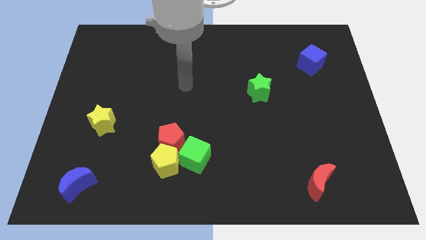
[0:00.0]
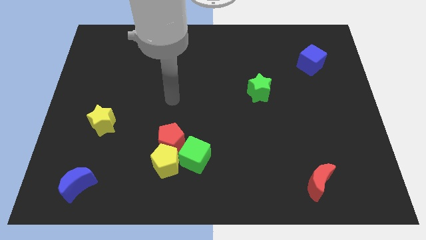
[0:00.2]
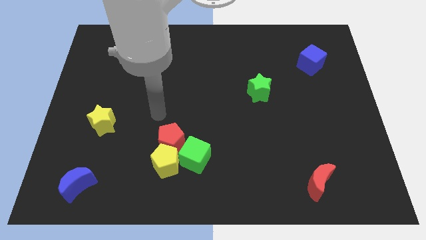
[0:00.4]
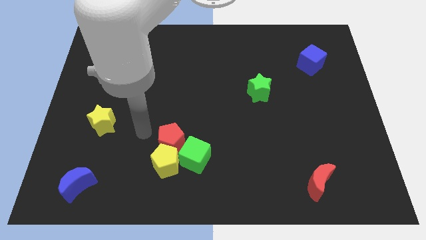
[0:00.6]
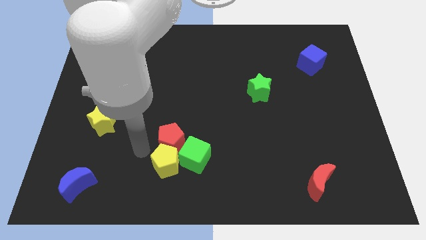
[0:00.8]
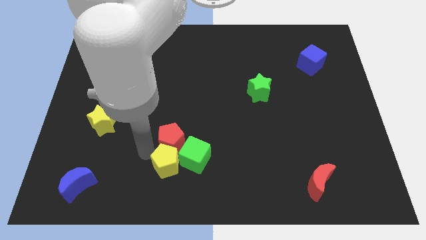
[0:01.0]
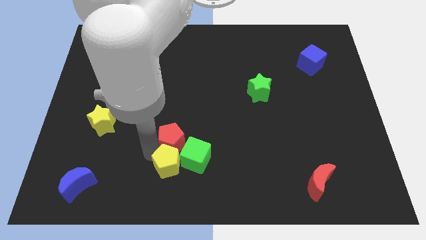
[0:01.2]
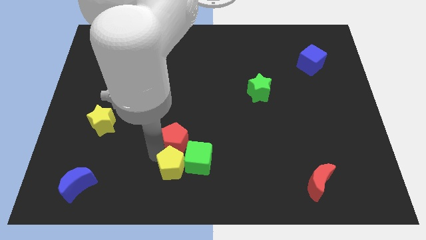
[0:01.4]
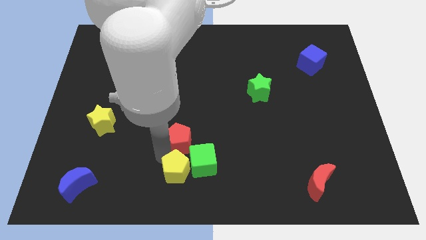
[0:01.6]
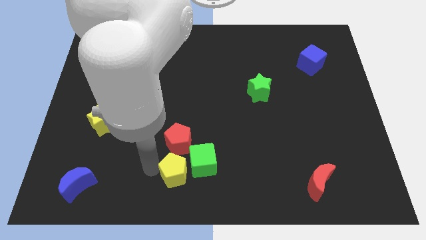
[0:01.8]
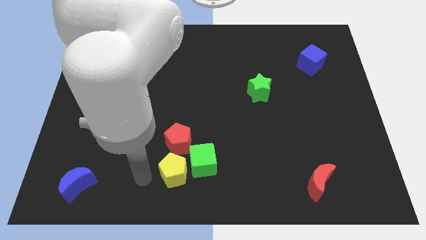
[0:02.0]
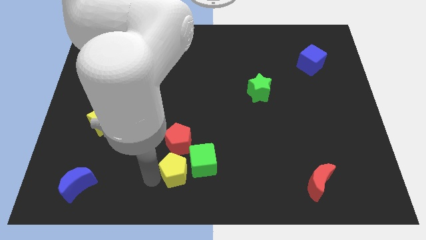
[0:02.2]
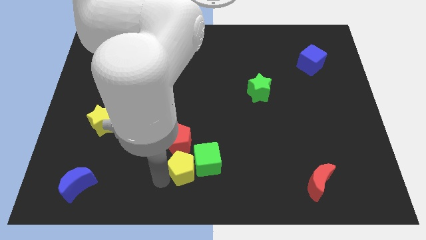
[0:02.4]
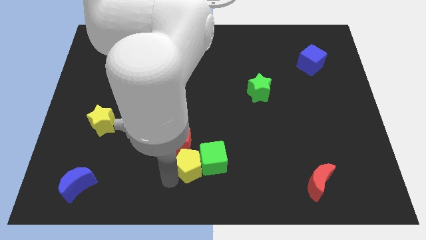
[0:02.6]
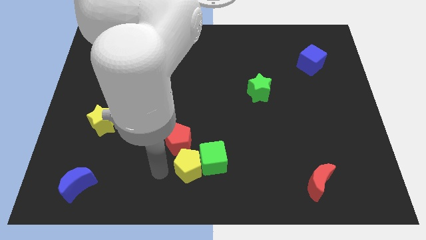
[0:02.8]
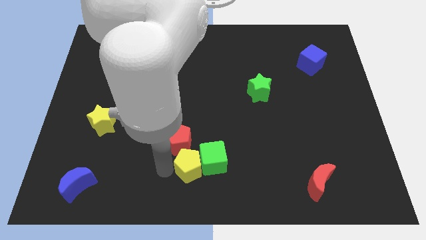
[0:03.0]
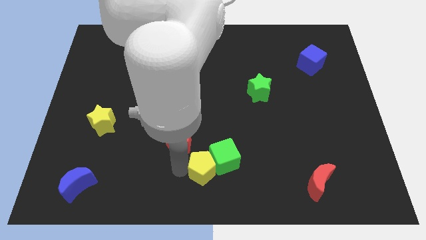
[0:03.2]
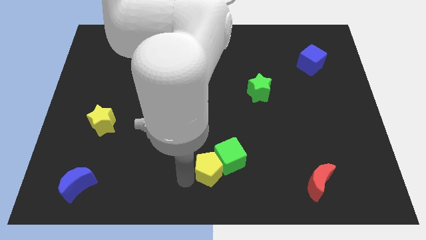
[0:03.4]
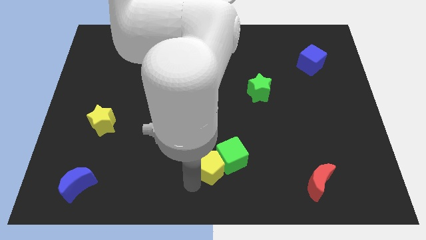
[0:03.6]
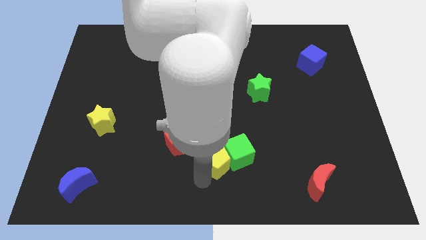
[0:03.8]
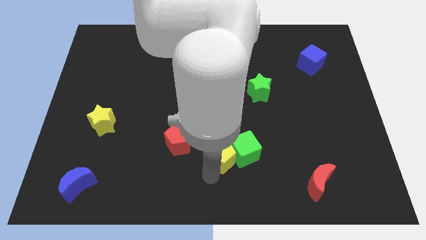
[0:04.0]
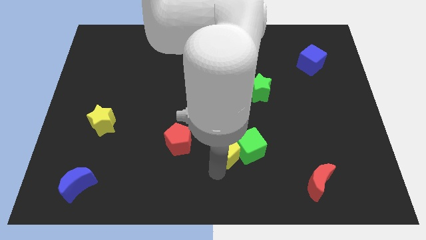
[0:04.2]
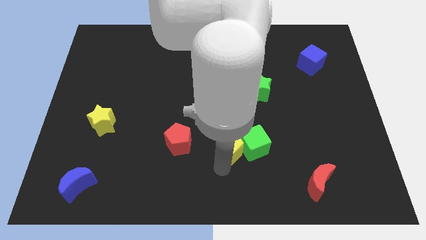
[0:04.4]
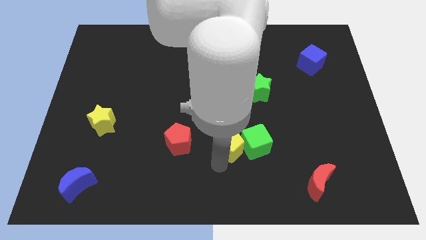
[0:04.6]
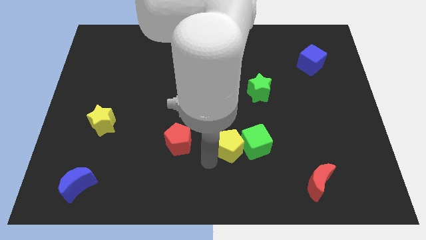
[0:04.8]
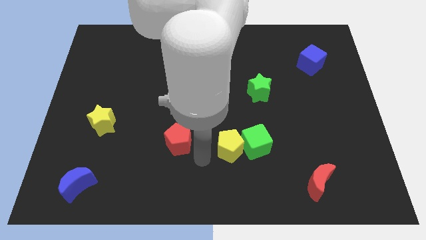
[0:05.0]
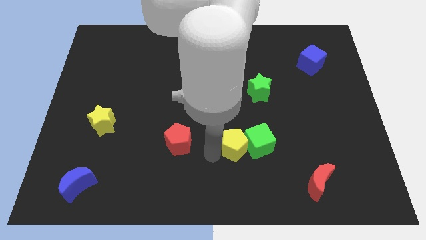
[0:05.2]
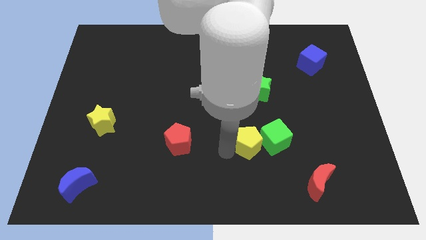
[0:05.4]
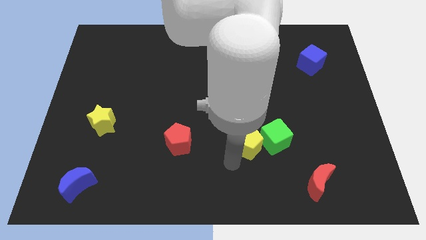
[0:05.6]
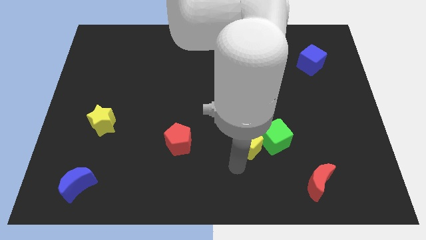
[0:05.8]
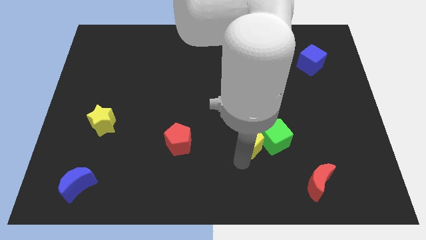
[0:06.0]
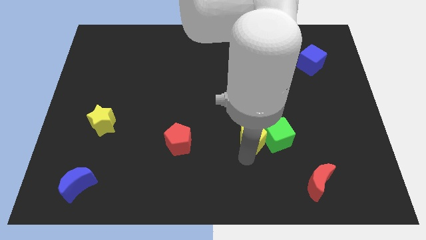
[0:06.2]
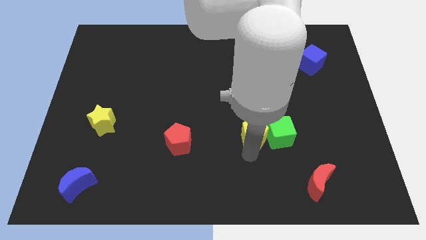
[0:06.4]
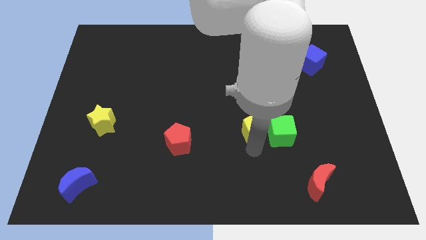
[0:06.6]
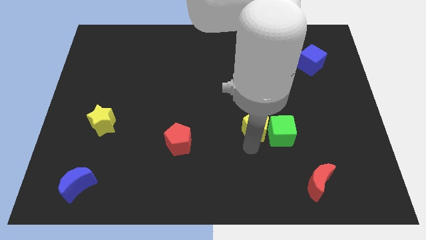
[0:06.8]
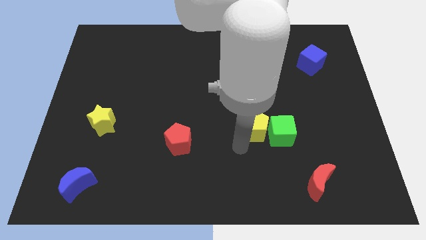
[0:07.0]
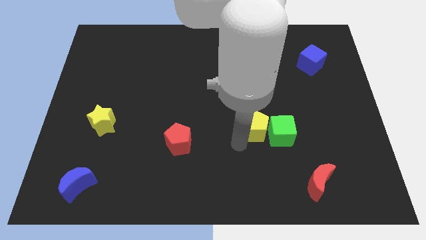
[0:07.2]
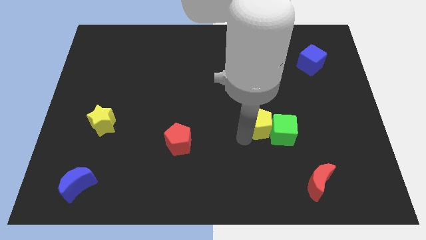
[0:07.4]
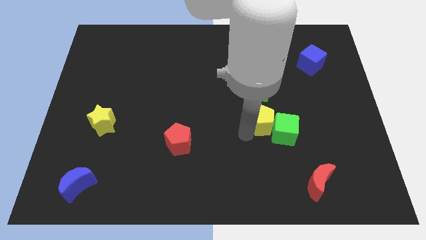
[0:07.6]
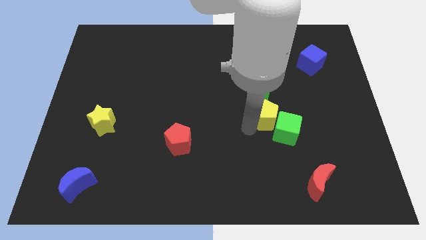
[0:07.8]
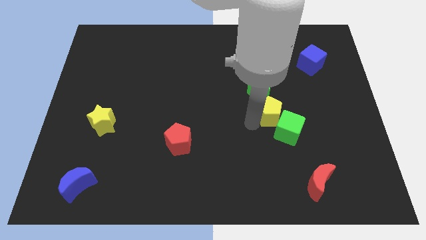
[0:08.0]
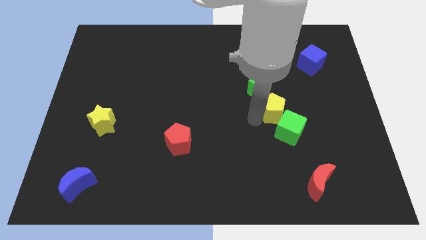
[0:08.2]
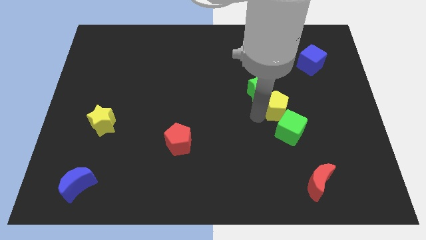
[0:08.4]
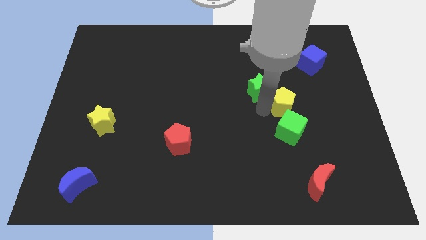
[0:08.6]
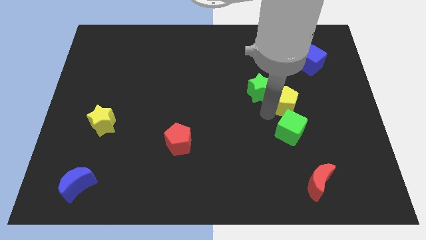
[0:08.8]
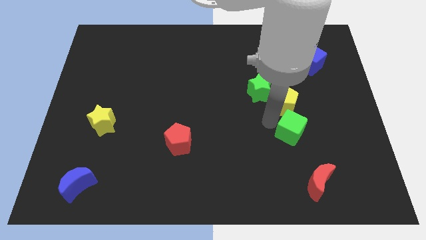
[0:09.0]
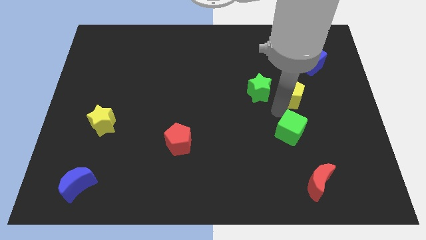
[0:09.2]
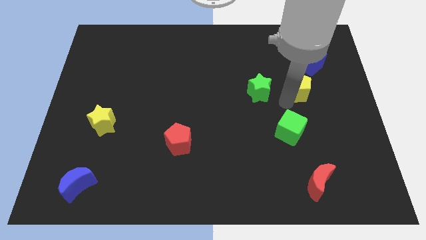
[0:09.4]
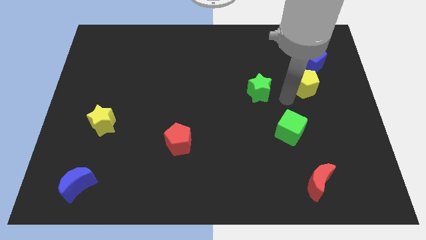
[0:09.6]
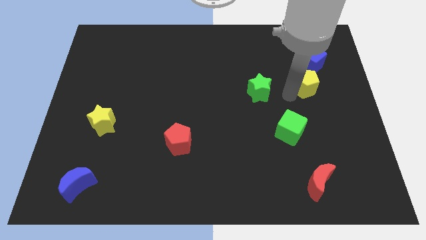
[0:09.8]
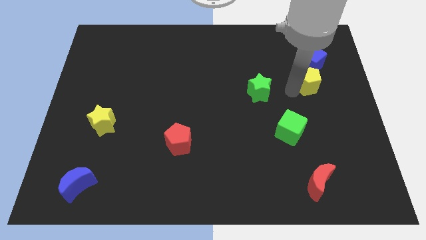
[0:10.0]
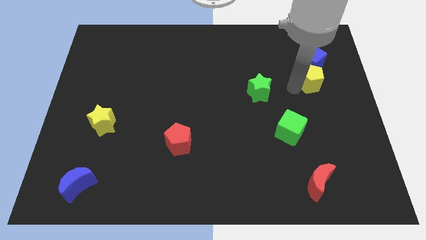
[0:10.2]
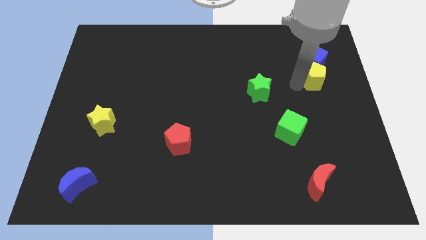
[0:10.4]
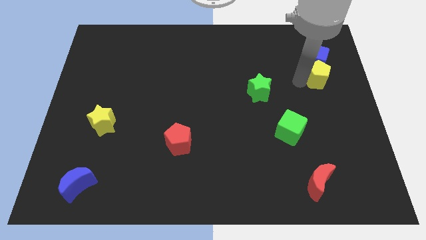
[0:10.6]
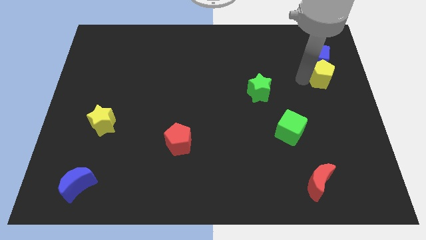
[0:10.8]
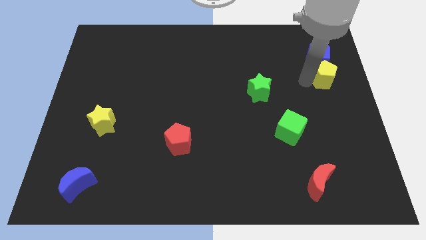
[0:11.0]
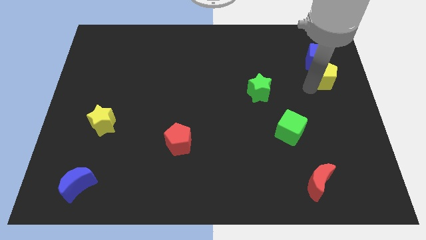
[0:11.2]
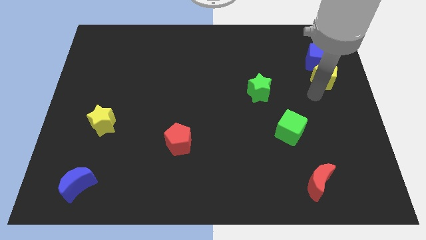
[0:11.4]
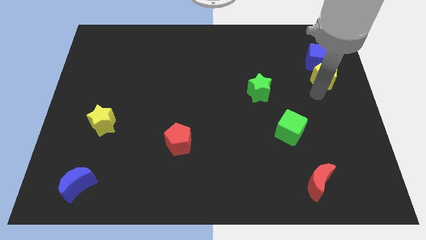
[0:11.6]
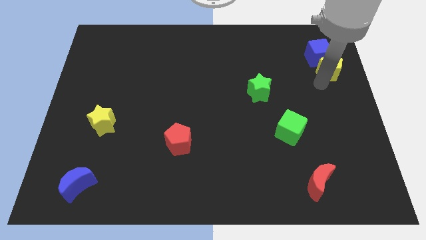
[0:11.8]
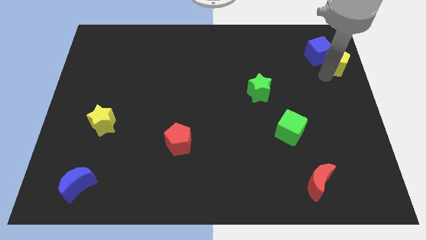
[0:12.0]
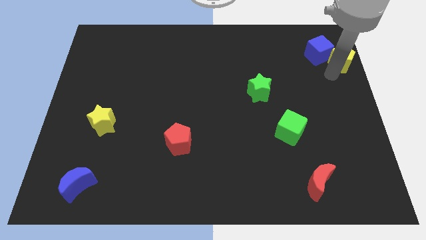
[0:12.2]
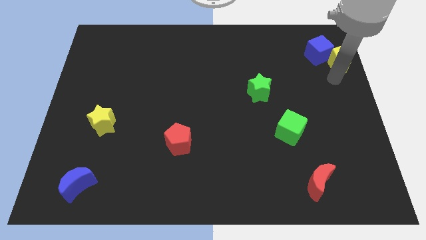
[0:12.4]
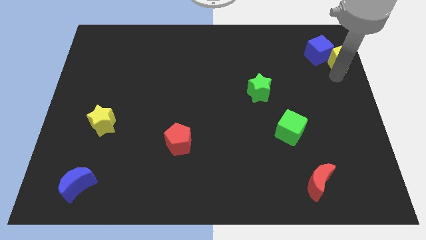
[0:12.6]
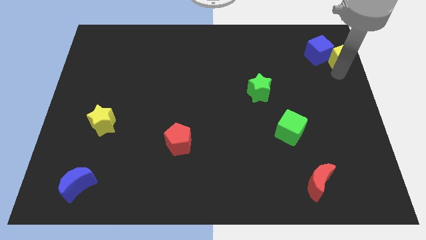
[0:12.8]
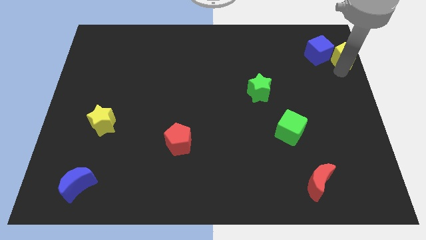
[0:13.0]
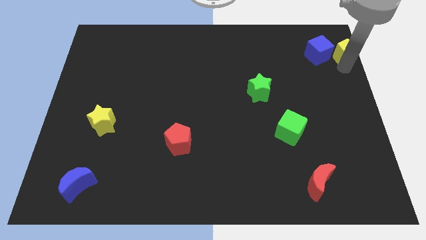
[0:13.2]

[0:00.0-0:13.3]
slide the yellow pentagon to the upper right corner
